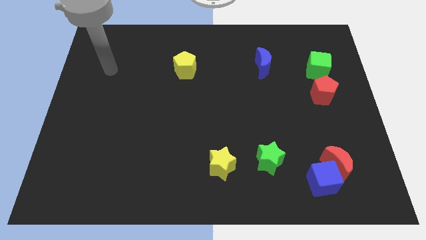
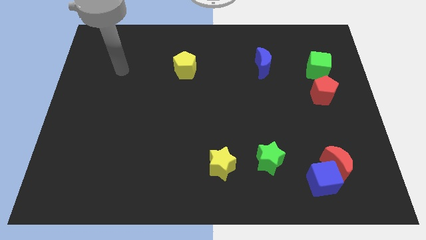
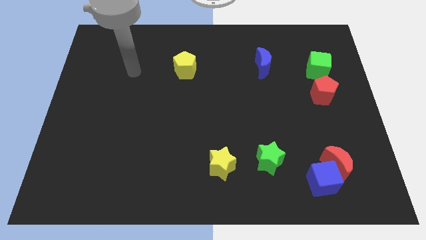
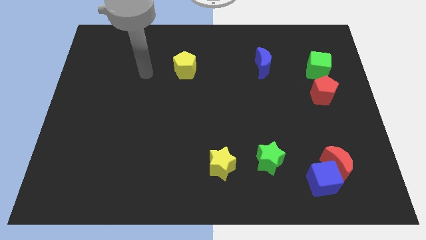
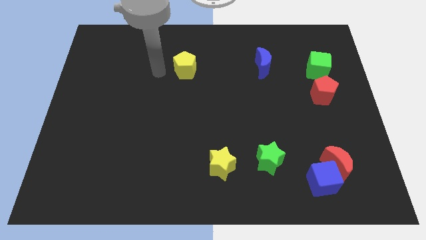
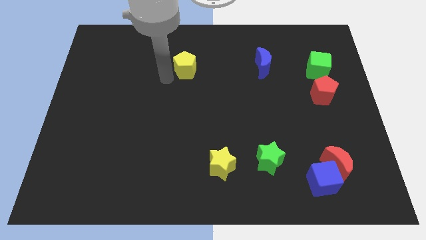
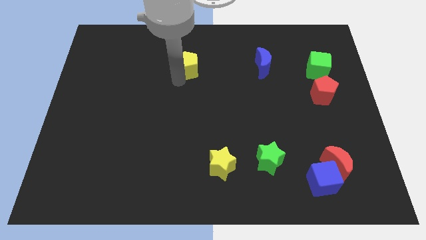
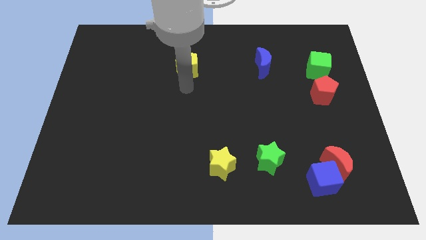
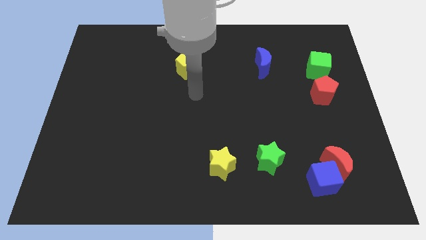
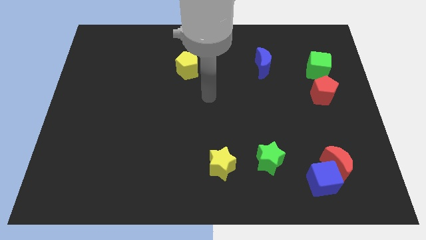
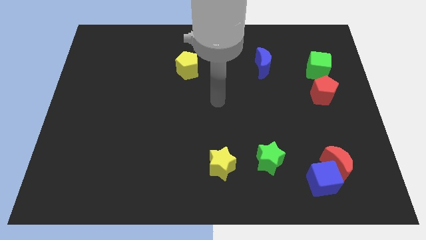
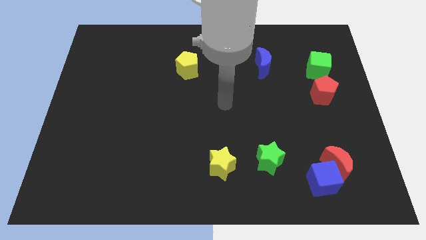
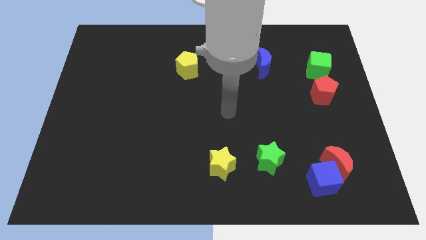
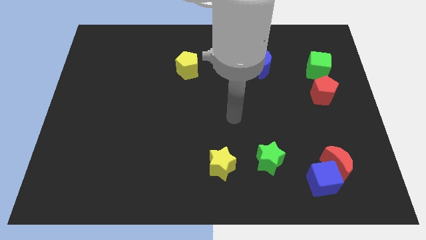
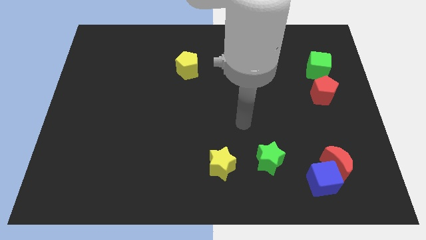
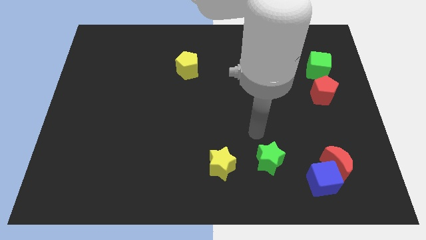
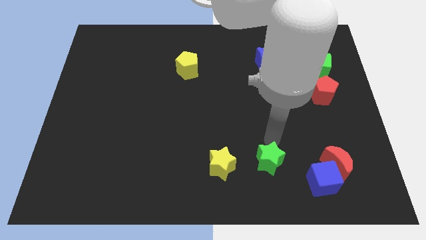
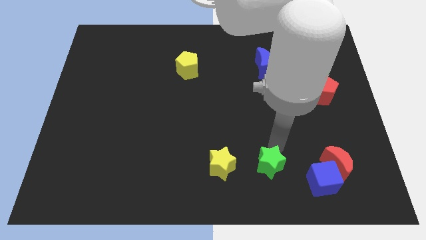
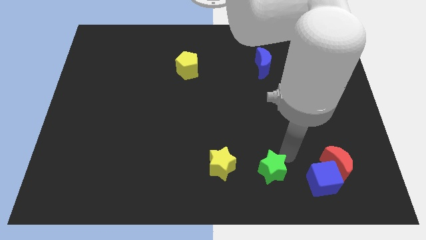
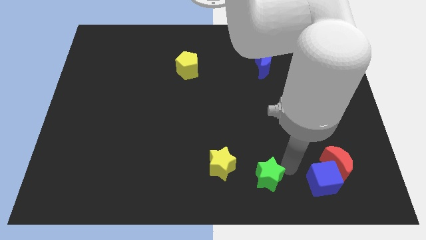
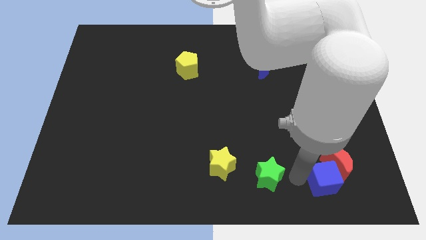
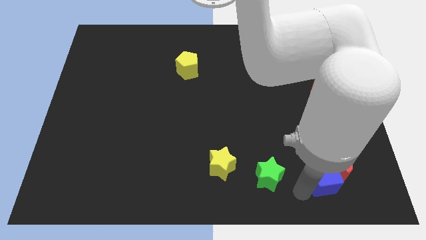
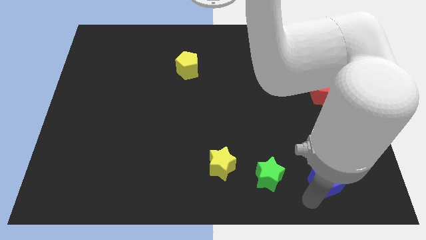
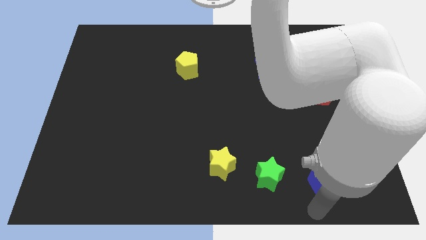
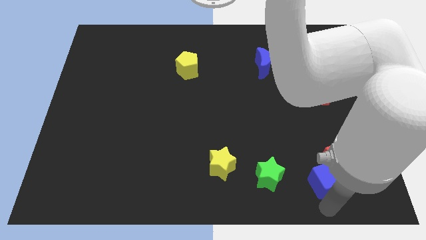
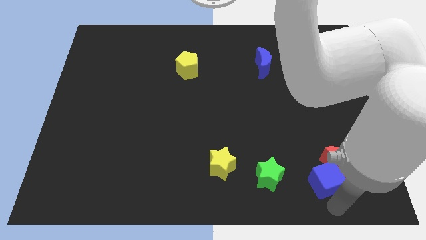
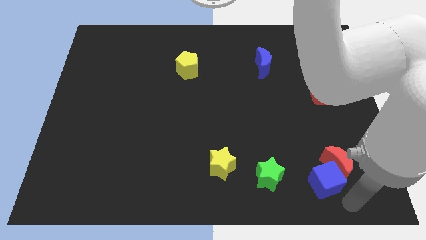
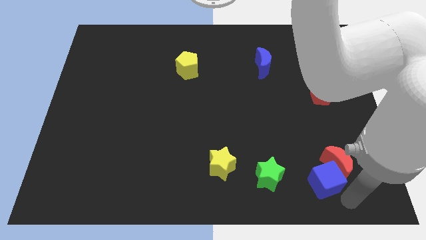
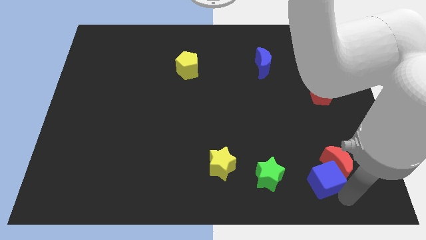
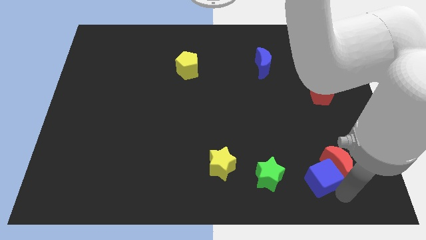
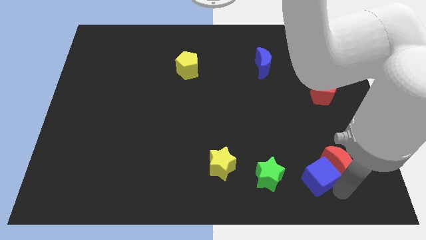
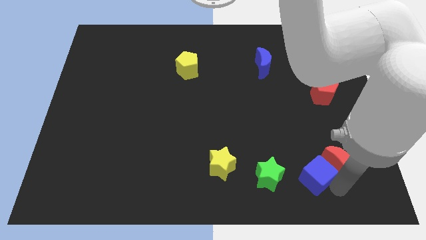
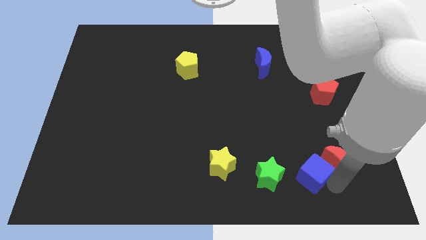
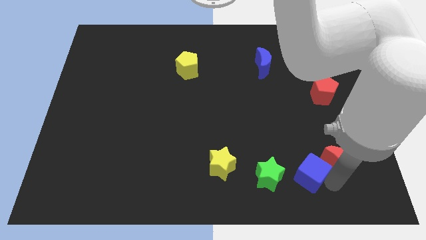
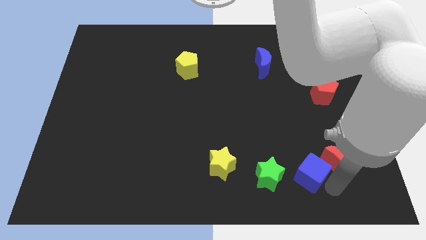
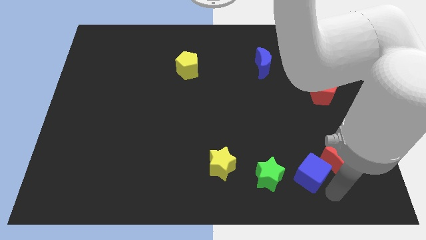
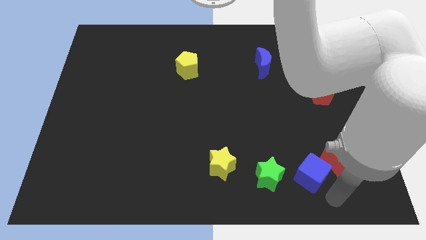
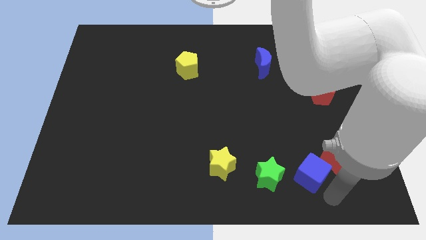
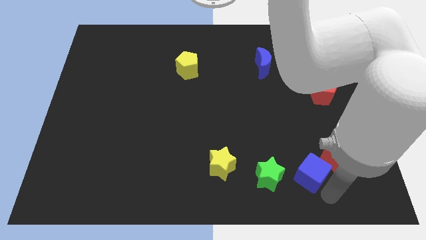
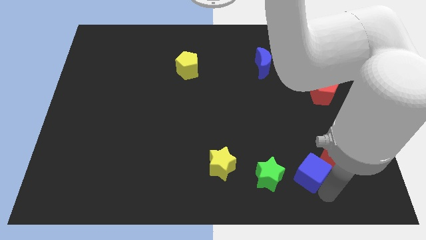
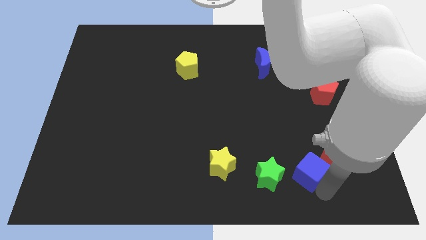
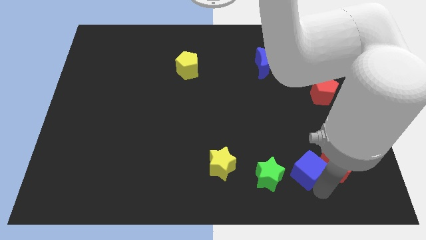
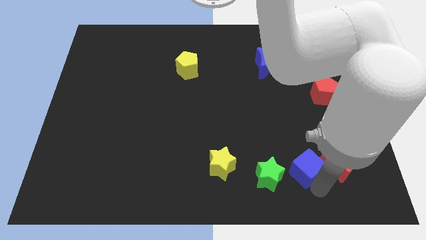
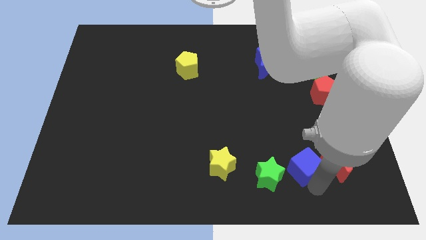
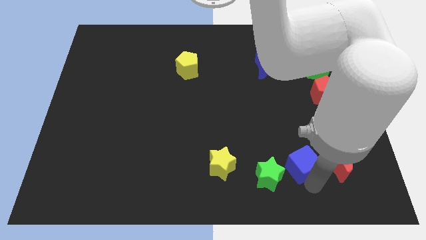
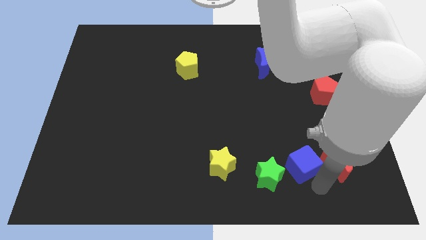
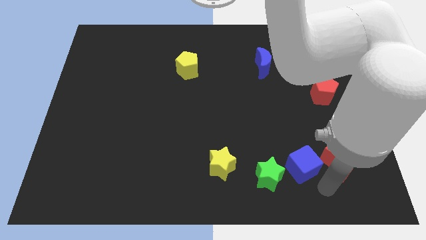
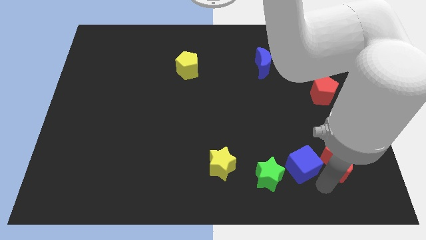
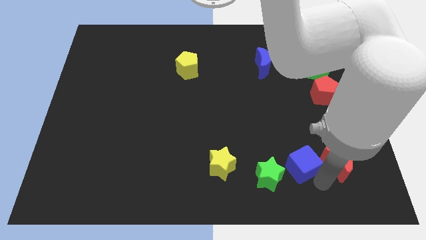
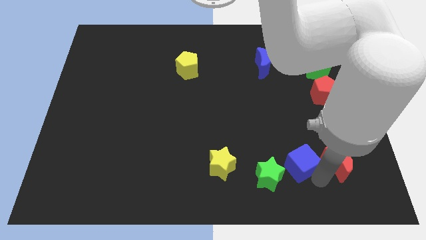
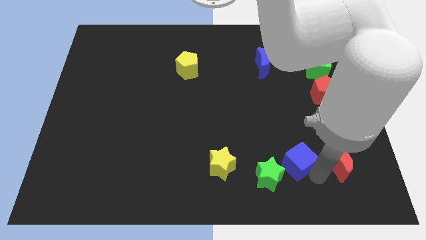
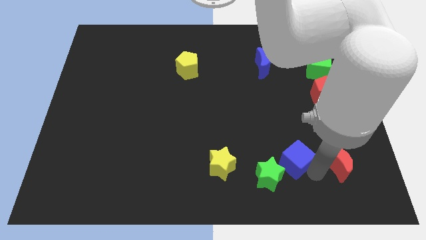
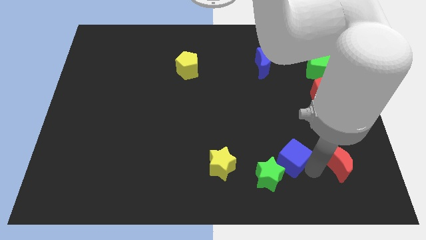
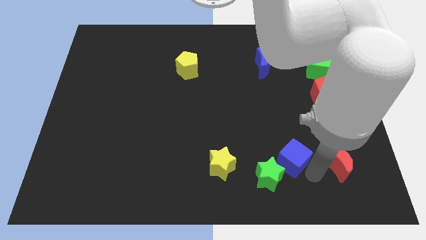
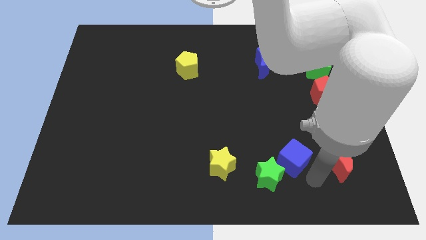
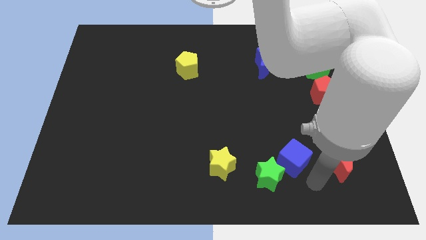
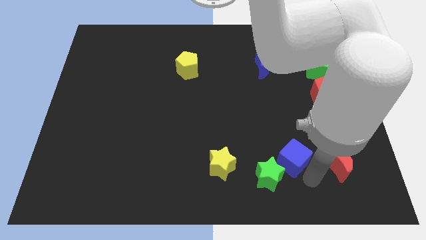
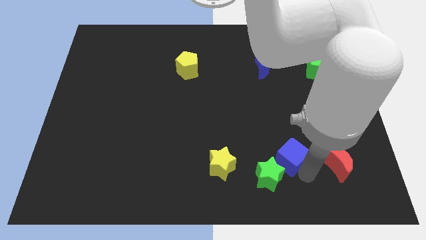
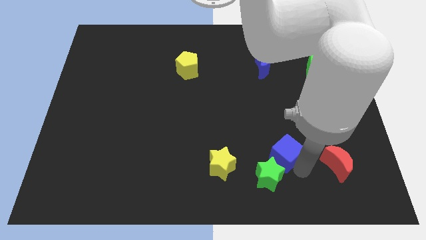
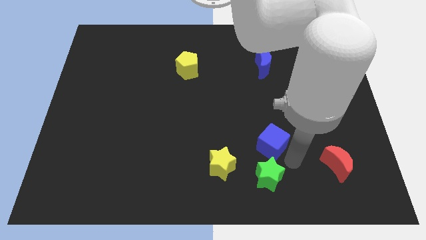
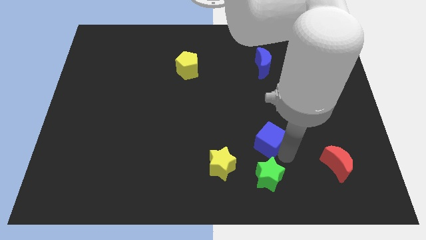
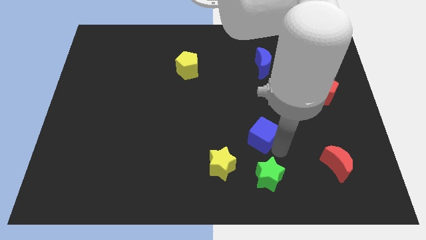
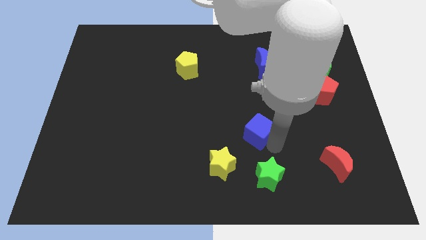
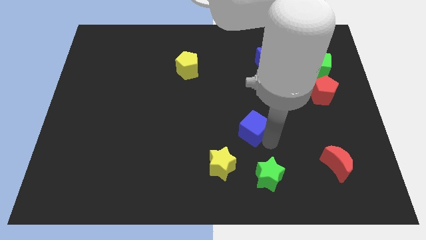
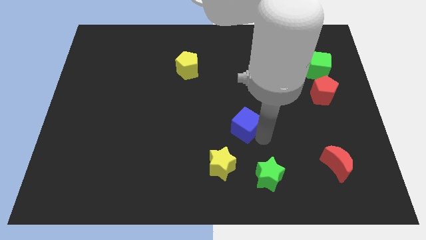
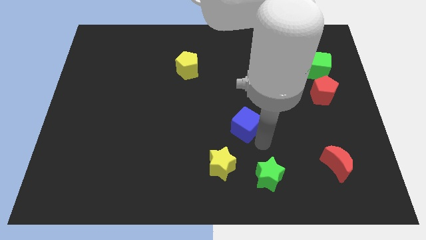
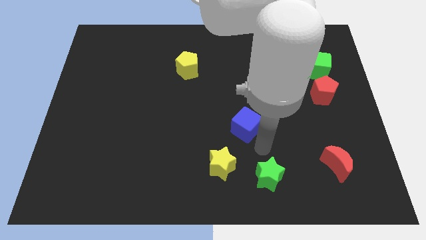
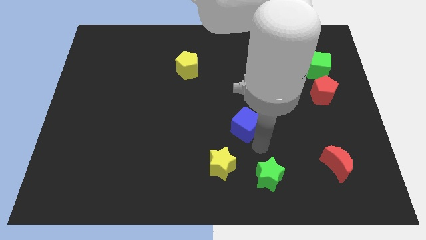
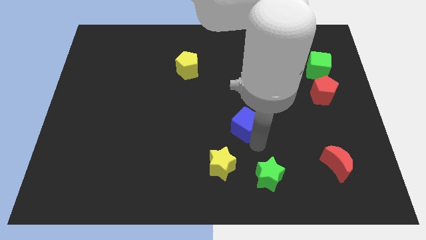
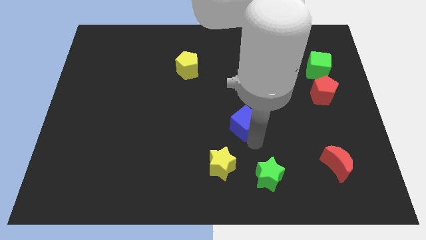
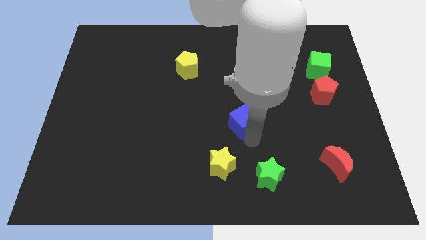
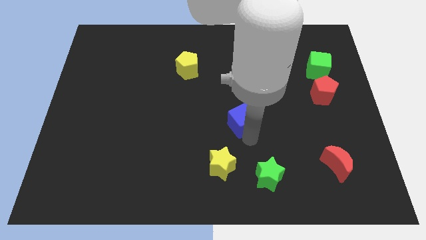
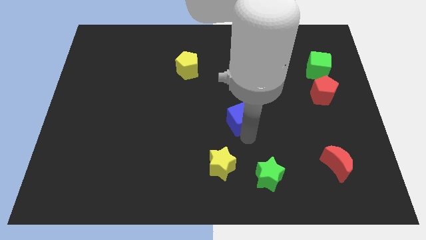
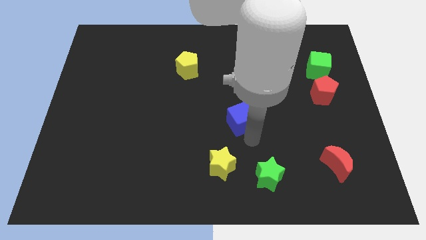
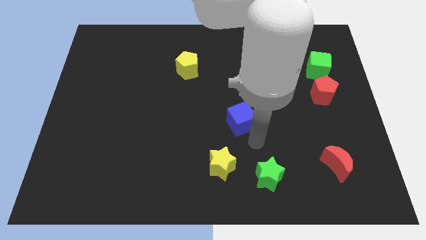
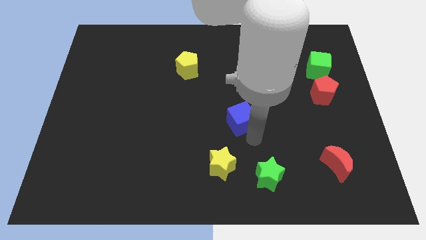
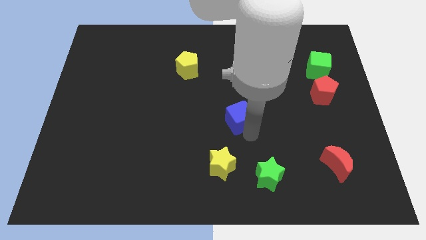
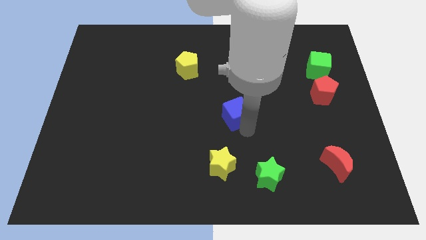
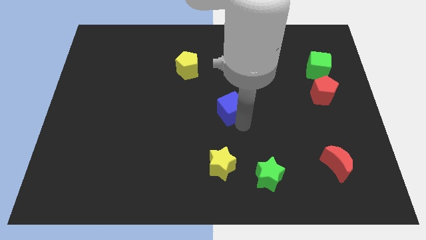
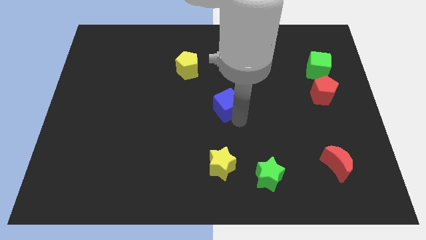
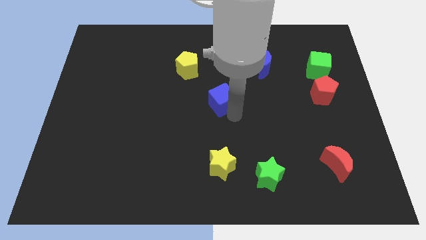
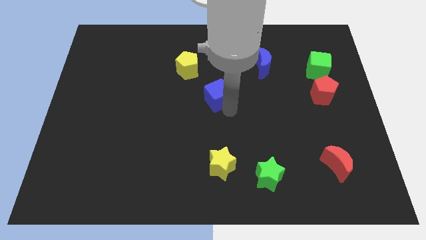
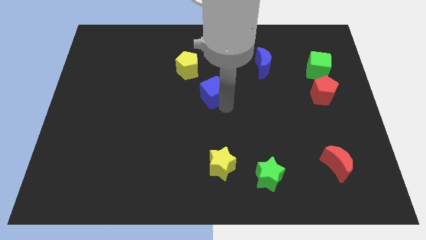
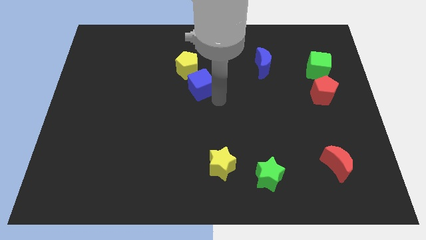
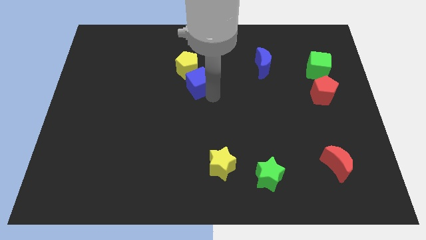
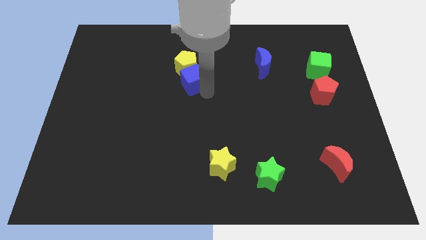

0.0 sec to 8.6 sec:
push the blue cube towards the yellow pentagon
